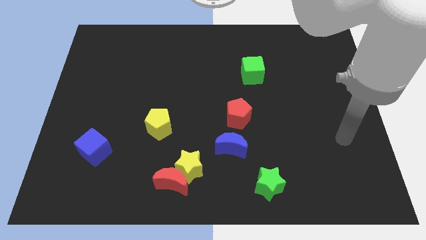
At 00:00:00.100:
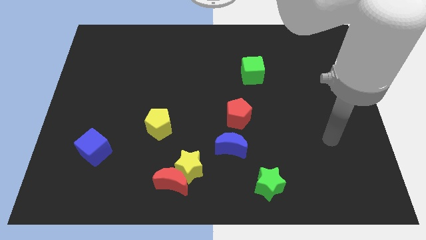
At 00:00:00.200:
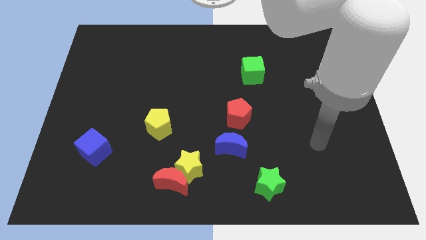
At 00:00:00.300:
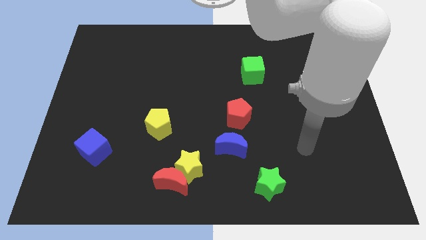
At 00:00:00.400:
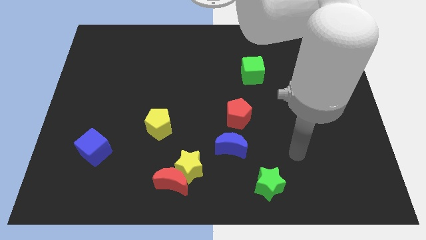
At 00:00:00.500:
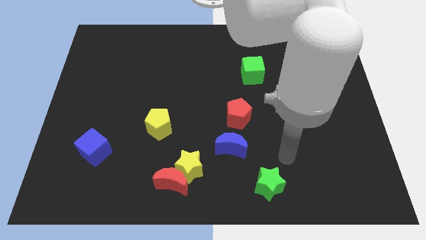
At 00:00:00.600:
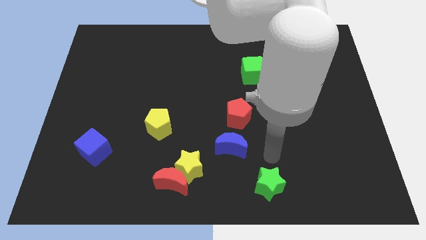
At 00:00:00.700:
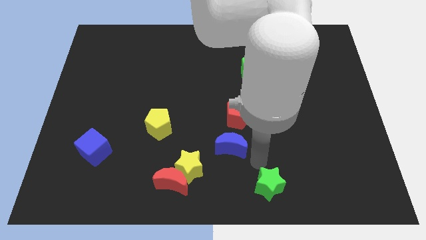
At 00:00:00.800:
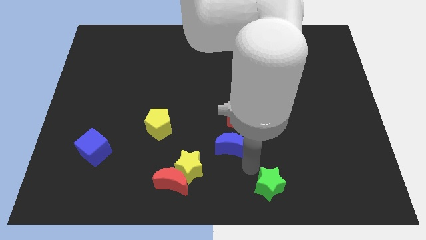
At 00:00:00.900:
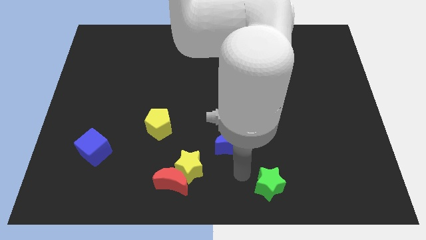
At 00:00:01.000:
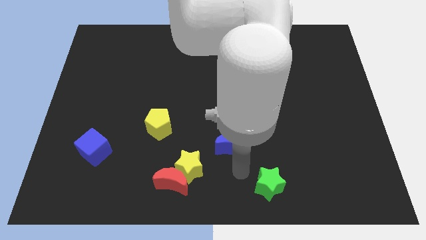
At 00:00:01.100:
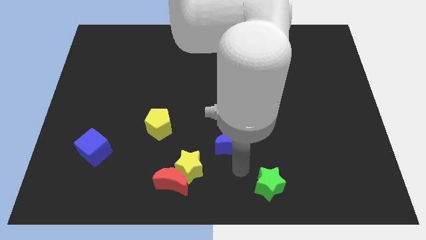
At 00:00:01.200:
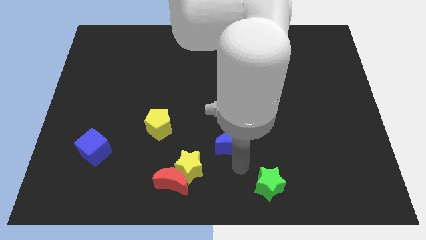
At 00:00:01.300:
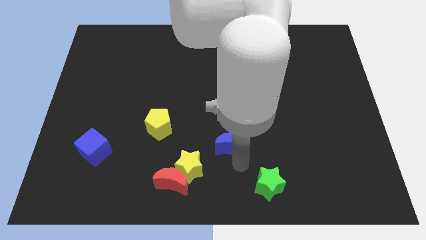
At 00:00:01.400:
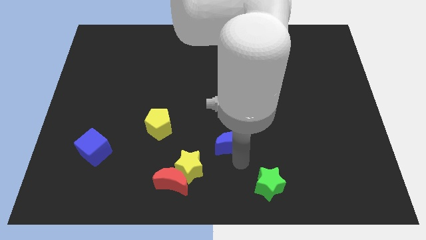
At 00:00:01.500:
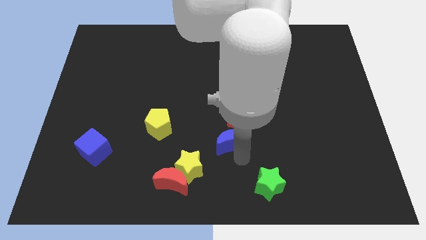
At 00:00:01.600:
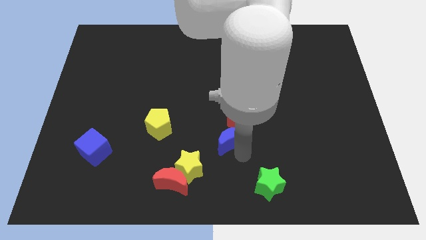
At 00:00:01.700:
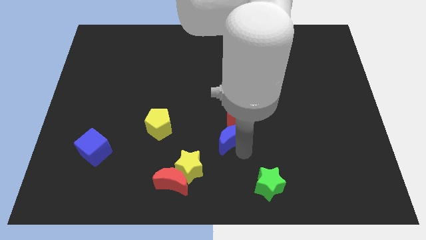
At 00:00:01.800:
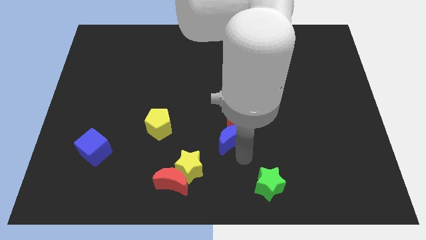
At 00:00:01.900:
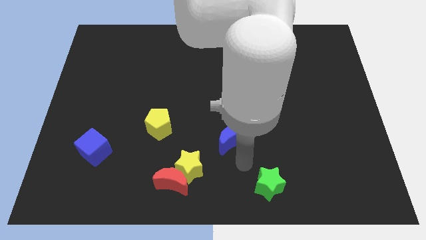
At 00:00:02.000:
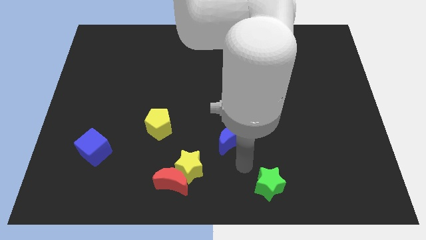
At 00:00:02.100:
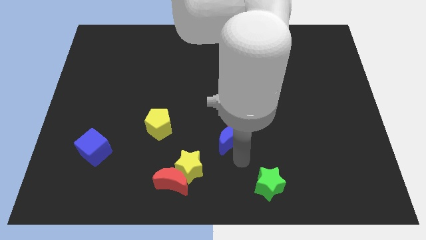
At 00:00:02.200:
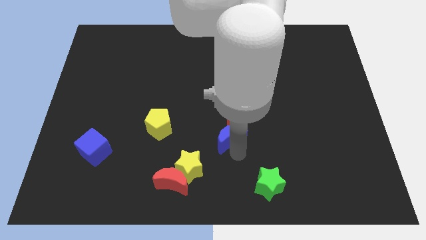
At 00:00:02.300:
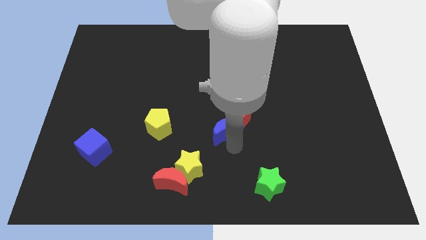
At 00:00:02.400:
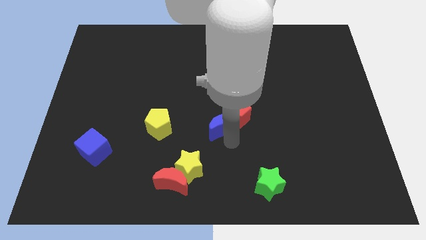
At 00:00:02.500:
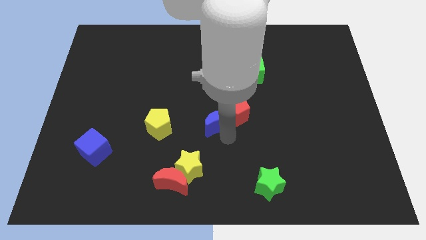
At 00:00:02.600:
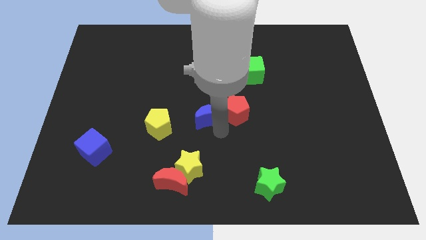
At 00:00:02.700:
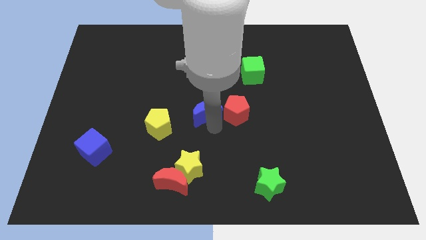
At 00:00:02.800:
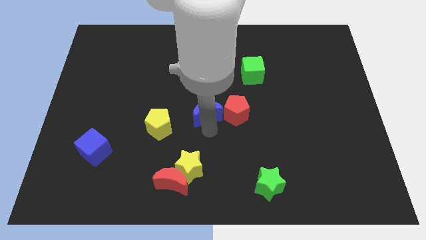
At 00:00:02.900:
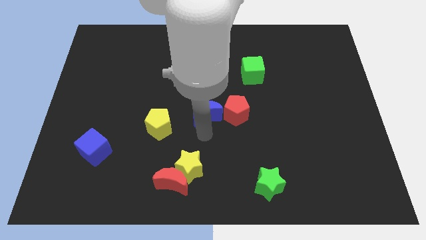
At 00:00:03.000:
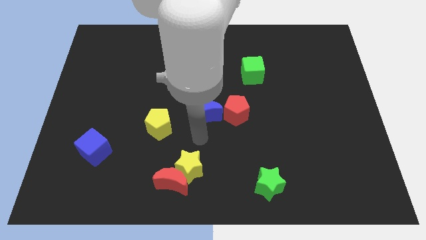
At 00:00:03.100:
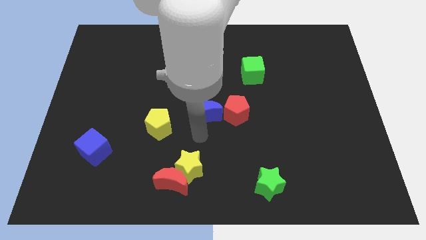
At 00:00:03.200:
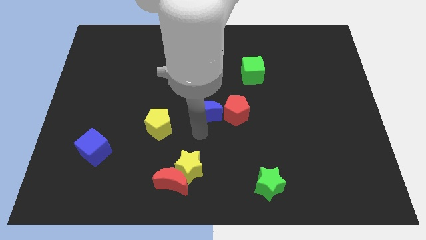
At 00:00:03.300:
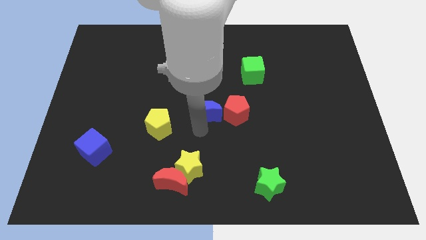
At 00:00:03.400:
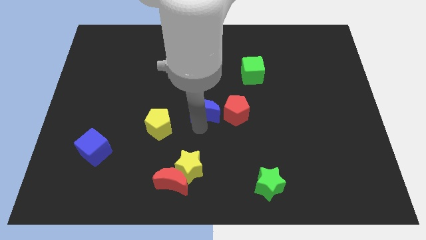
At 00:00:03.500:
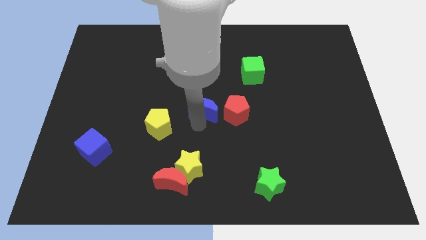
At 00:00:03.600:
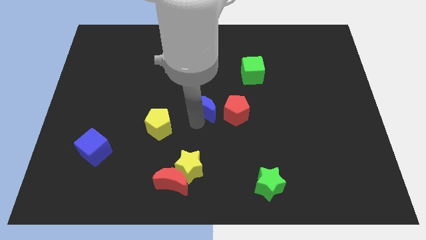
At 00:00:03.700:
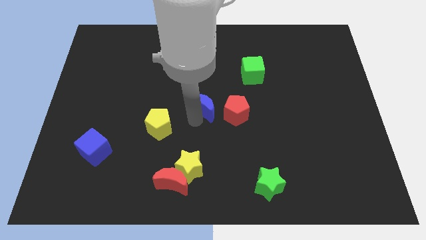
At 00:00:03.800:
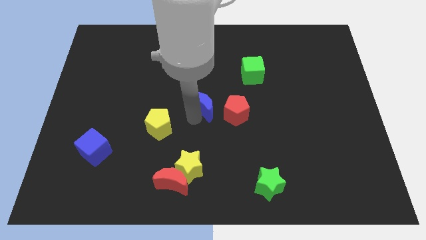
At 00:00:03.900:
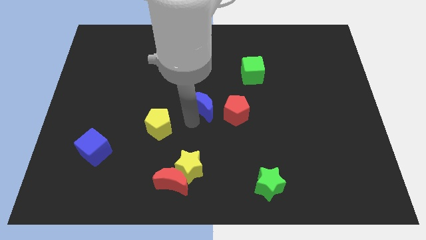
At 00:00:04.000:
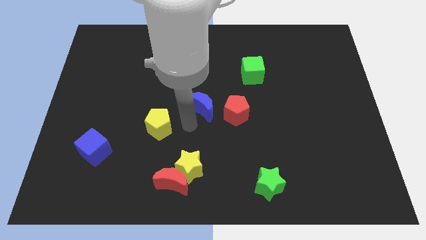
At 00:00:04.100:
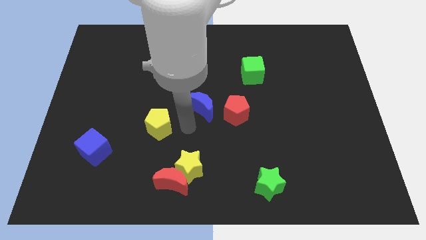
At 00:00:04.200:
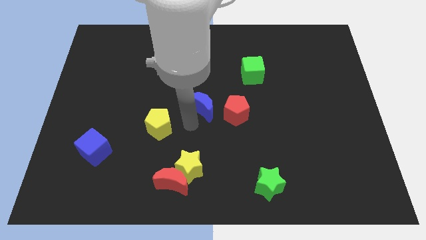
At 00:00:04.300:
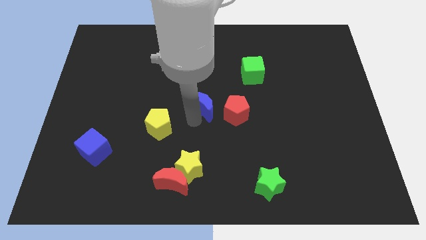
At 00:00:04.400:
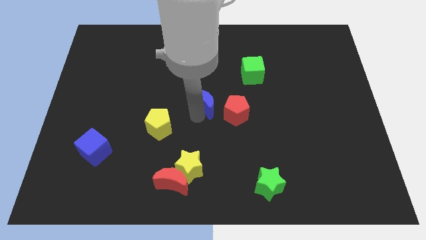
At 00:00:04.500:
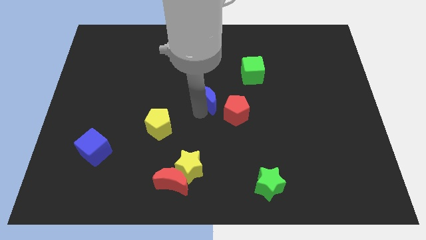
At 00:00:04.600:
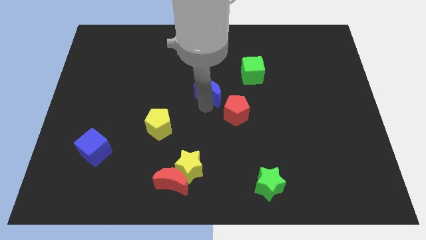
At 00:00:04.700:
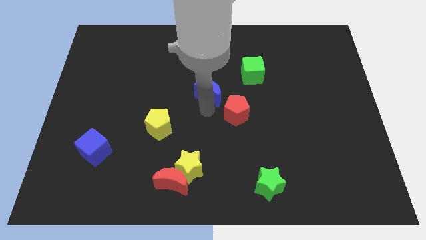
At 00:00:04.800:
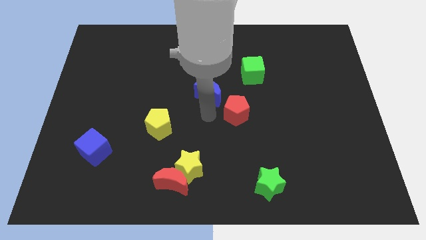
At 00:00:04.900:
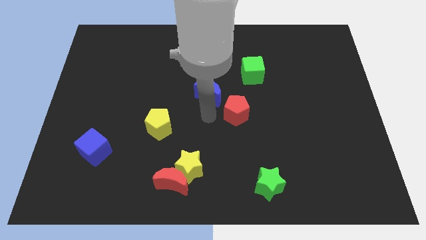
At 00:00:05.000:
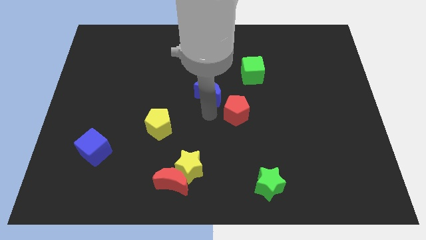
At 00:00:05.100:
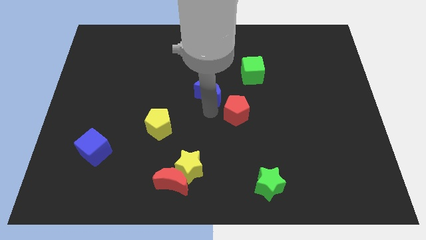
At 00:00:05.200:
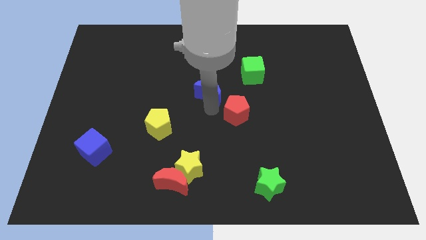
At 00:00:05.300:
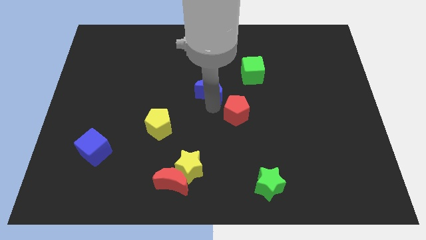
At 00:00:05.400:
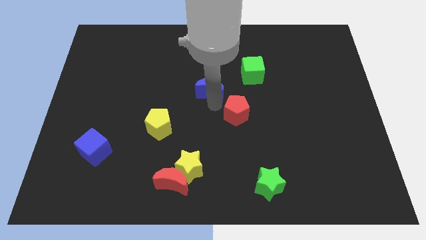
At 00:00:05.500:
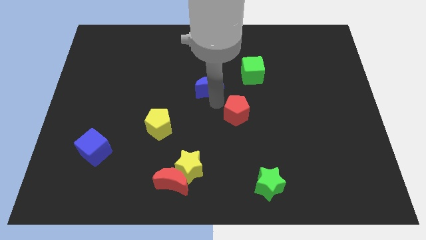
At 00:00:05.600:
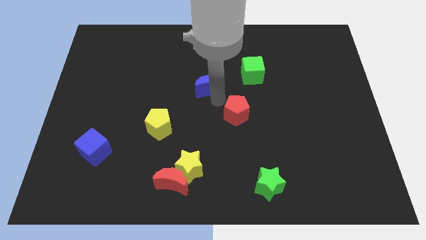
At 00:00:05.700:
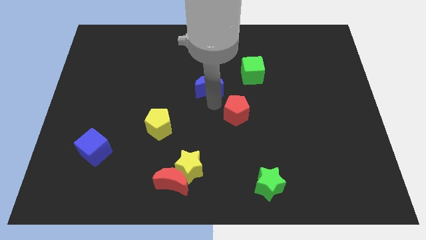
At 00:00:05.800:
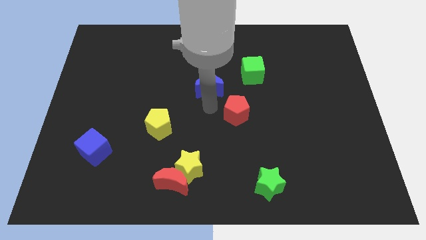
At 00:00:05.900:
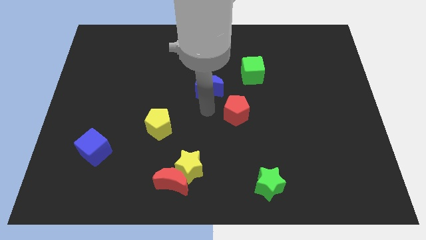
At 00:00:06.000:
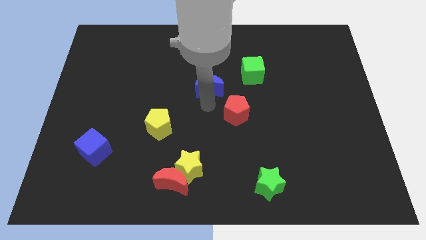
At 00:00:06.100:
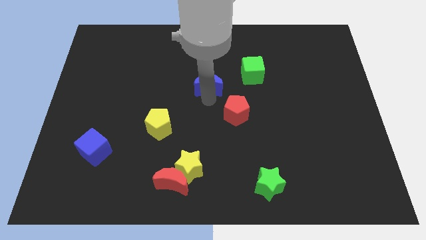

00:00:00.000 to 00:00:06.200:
put the blue moon to the left of the green cube

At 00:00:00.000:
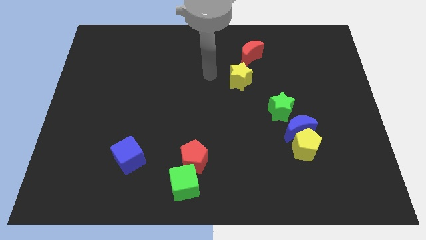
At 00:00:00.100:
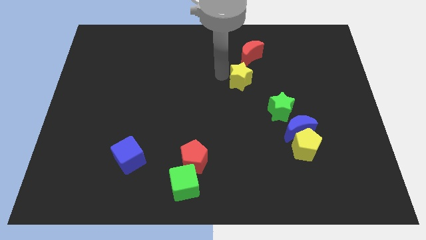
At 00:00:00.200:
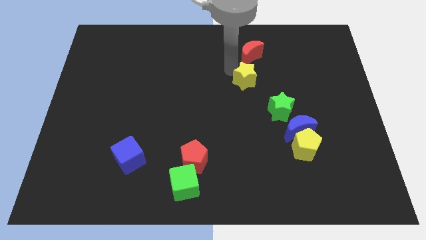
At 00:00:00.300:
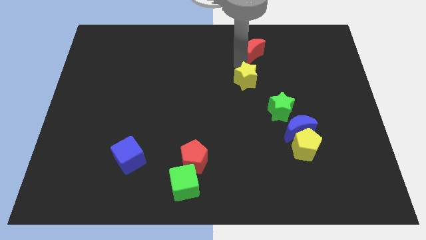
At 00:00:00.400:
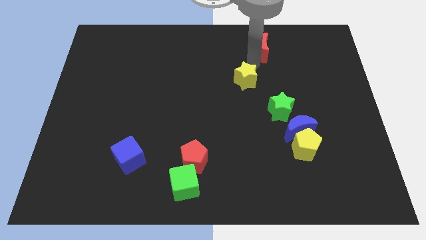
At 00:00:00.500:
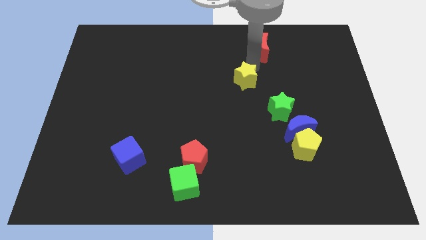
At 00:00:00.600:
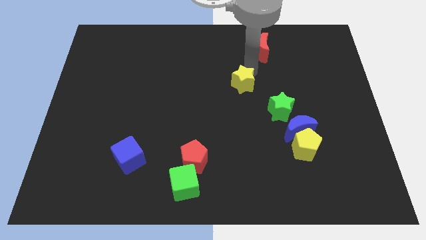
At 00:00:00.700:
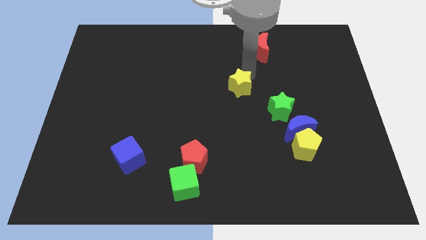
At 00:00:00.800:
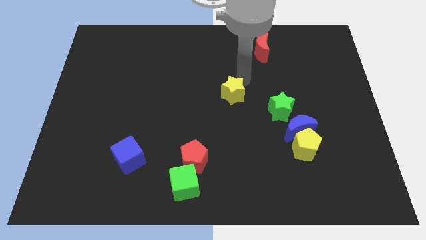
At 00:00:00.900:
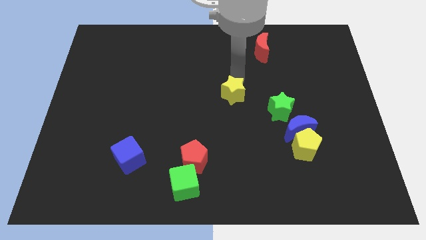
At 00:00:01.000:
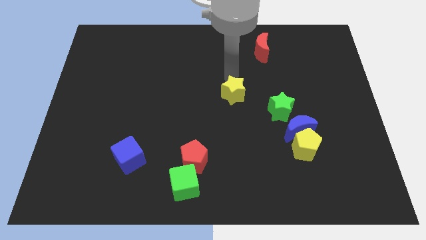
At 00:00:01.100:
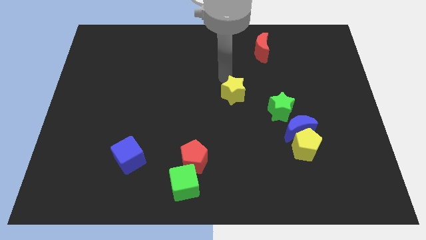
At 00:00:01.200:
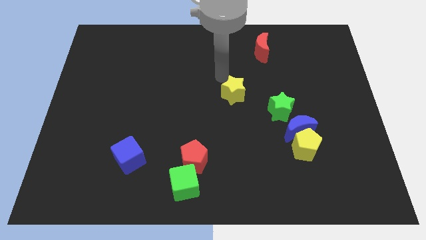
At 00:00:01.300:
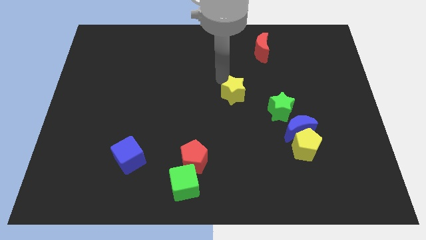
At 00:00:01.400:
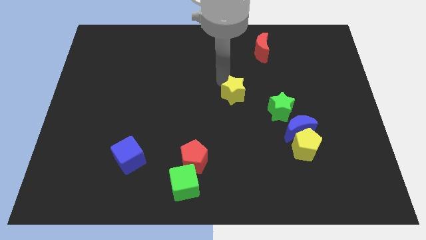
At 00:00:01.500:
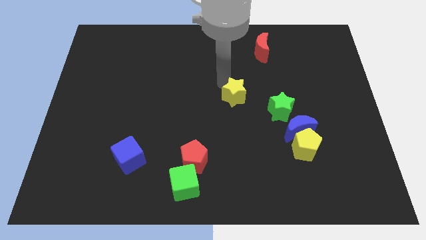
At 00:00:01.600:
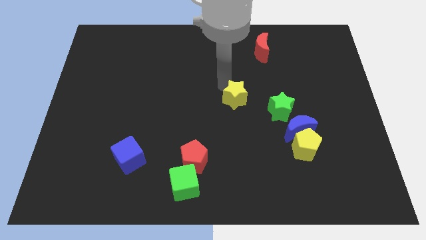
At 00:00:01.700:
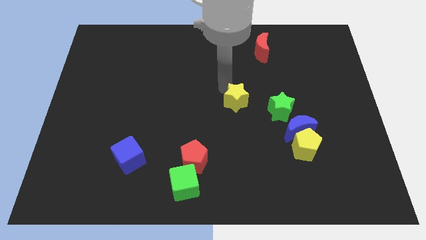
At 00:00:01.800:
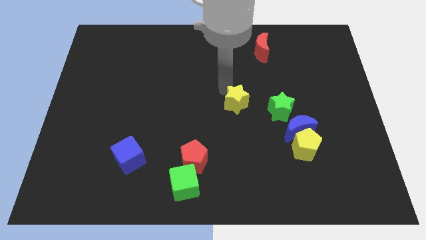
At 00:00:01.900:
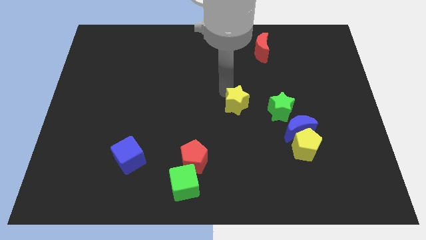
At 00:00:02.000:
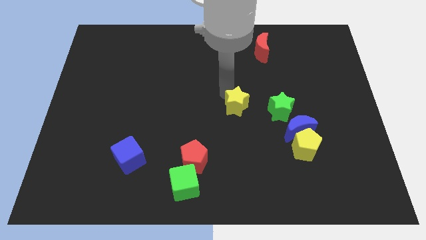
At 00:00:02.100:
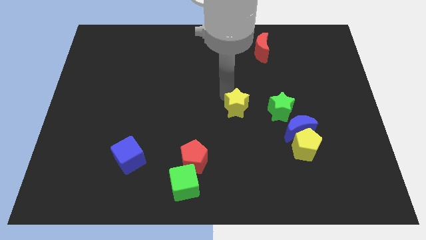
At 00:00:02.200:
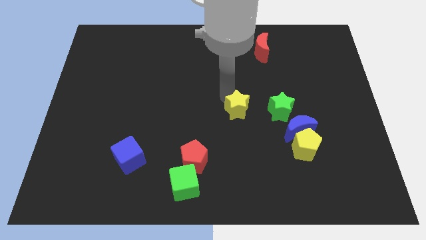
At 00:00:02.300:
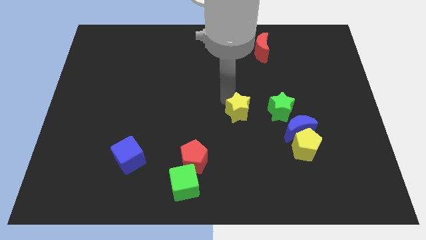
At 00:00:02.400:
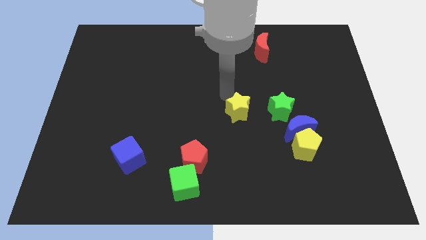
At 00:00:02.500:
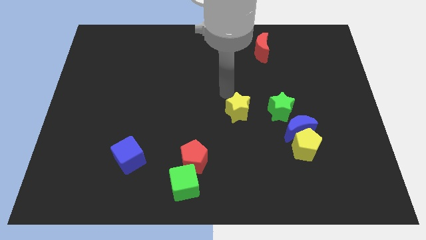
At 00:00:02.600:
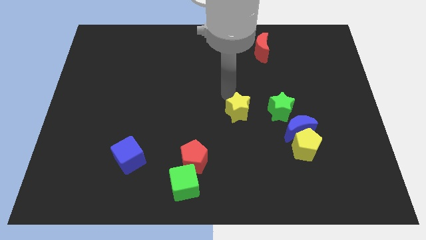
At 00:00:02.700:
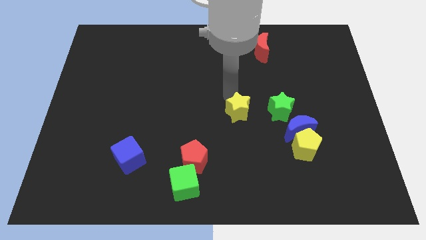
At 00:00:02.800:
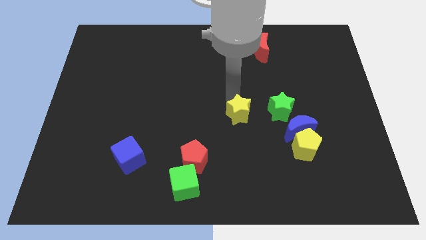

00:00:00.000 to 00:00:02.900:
move the yellow star to the left side of the blue moon
